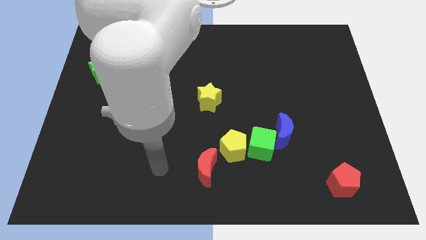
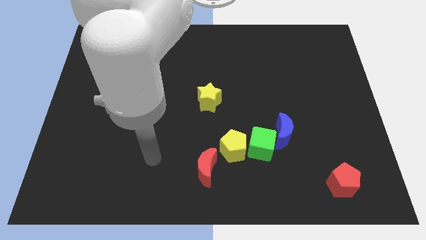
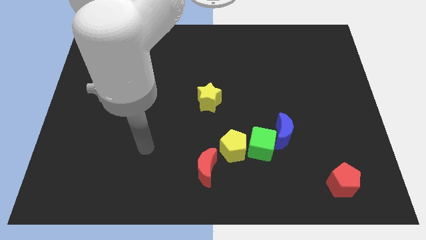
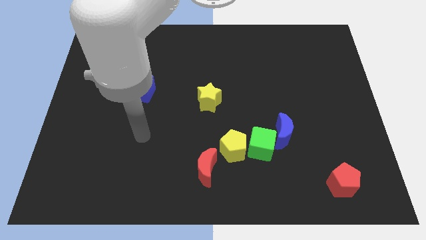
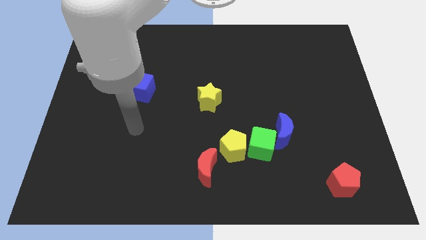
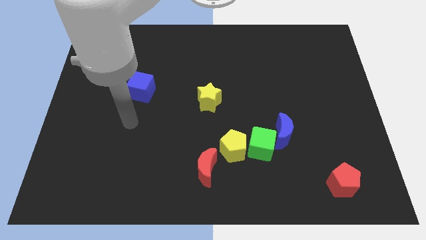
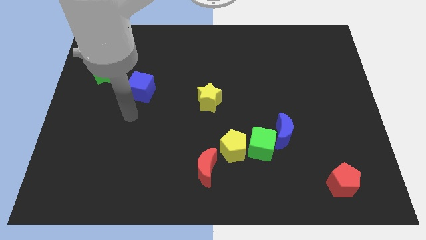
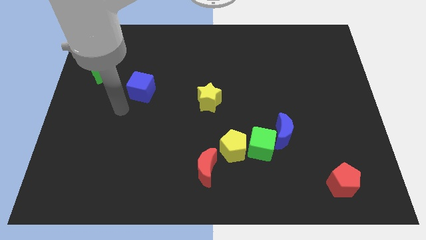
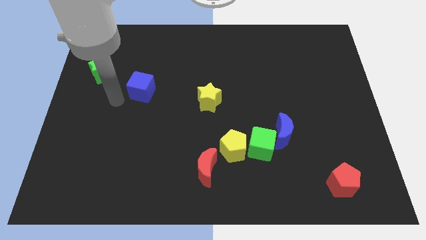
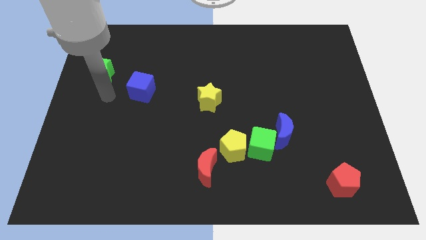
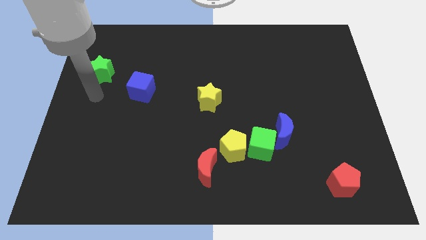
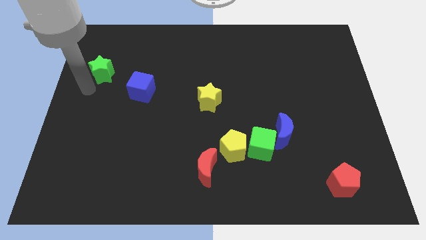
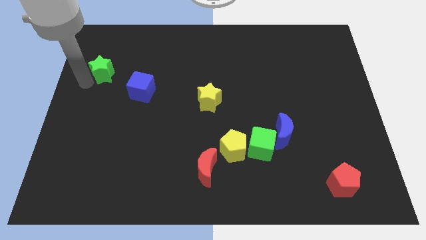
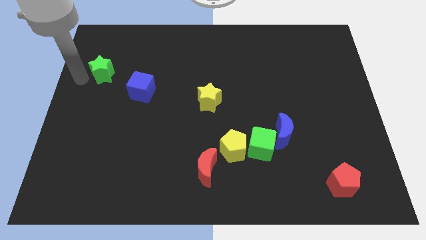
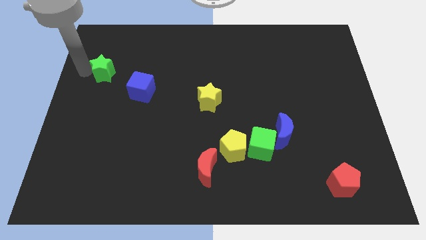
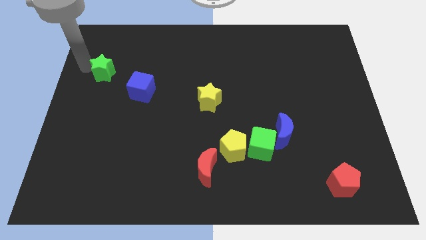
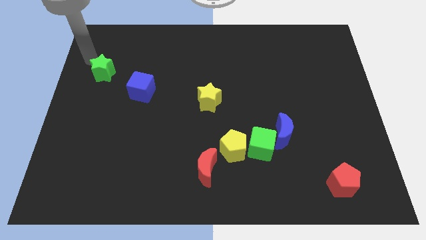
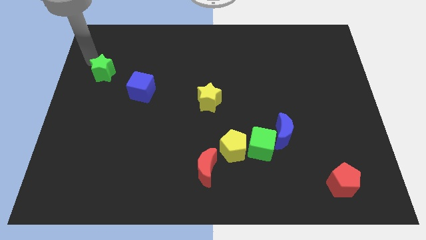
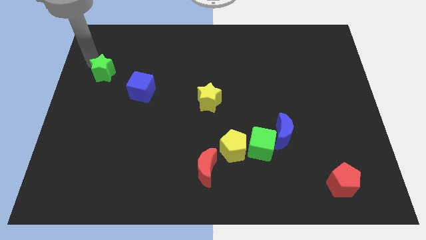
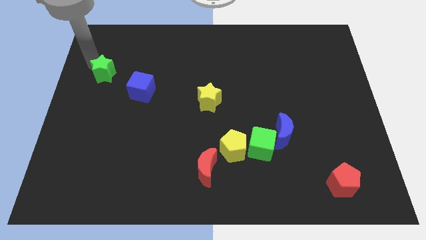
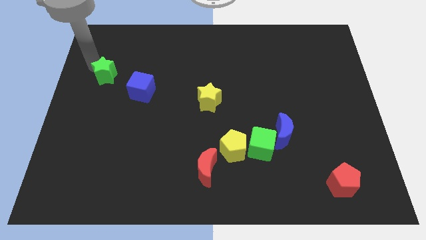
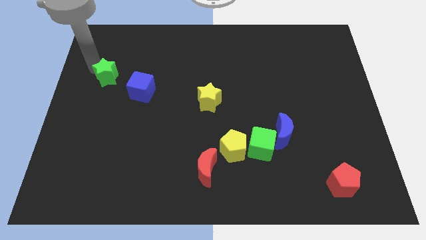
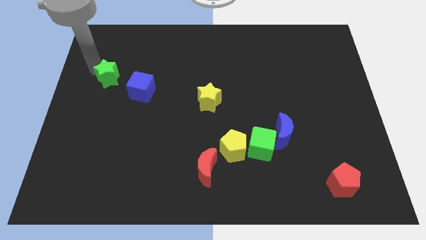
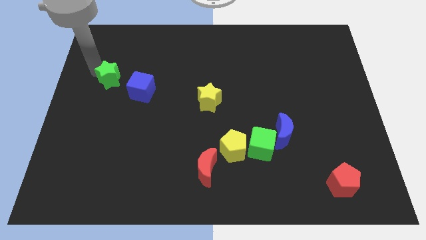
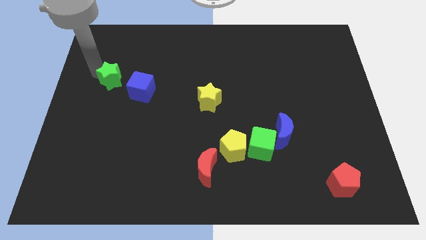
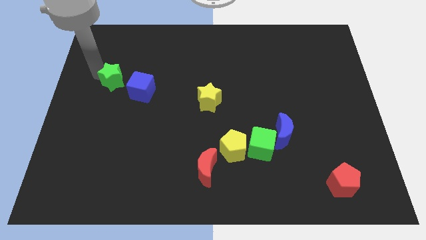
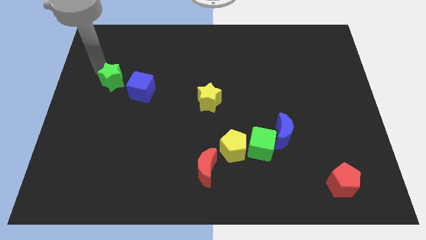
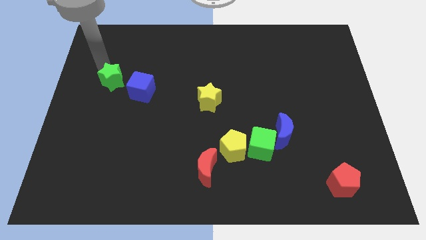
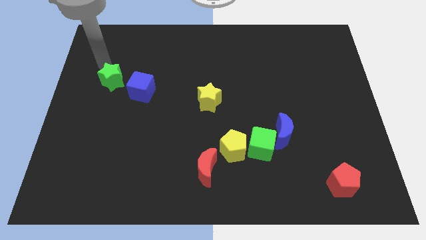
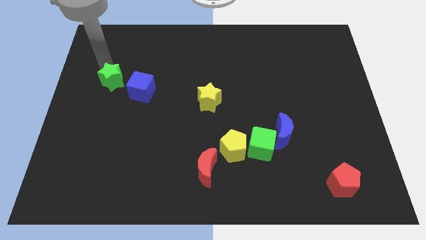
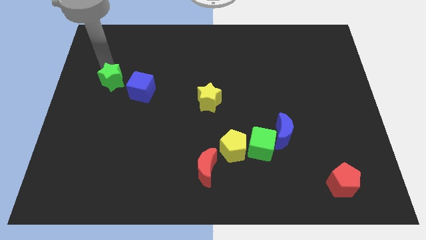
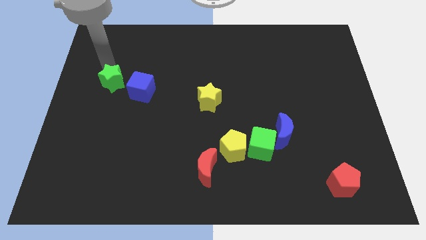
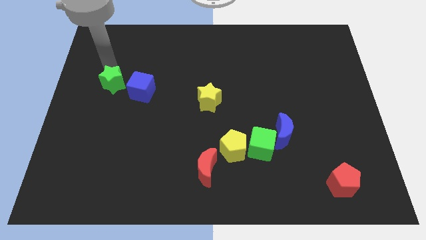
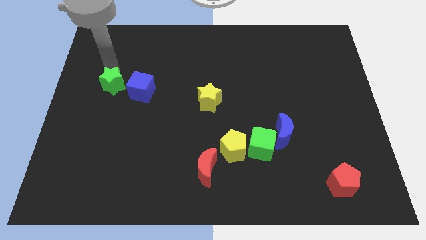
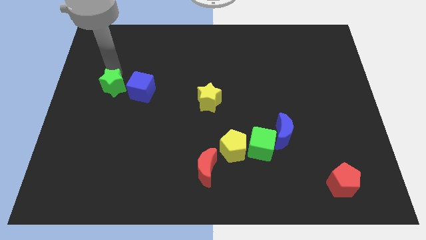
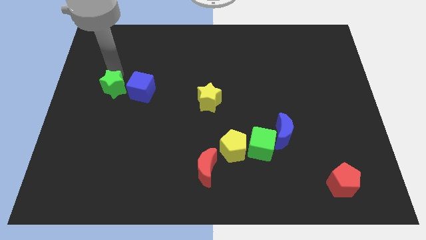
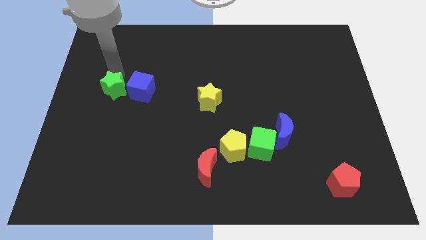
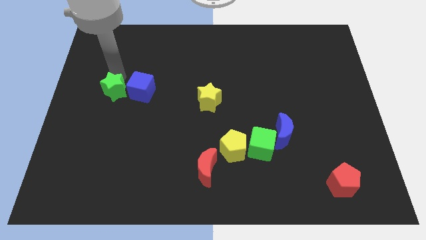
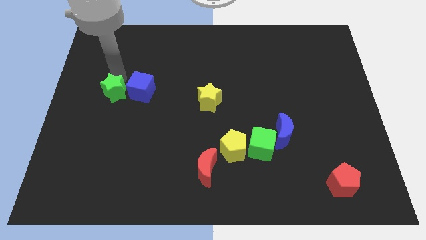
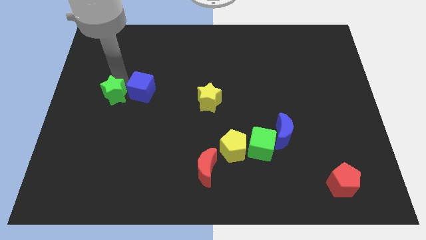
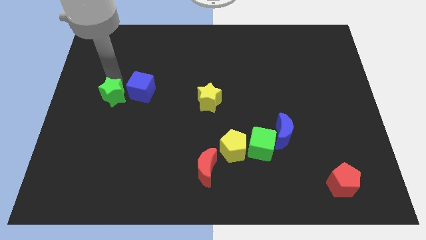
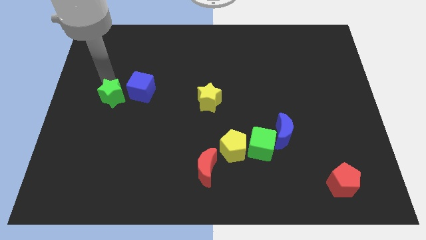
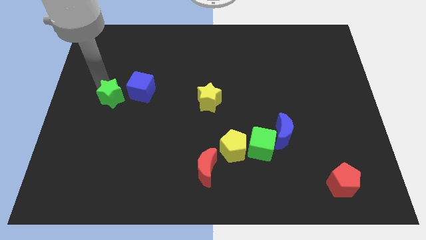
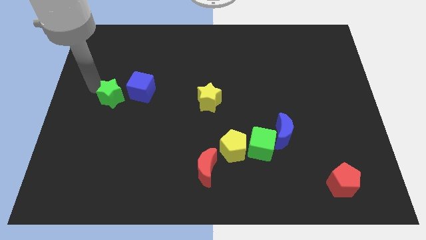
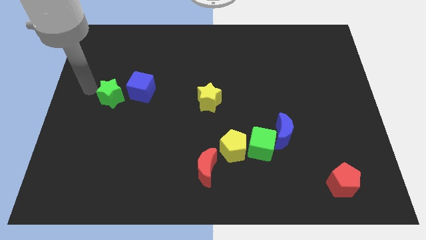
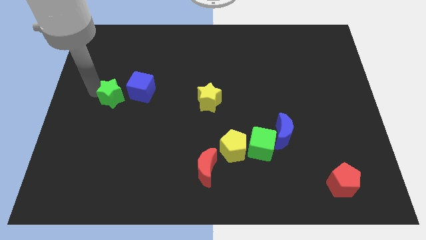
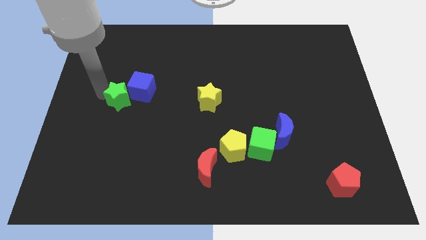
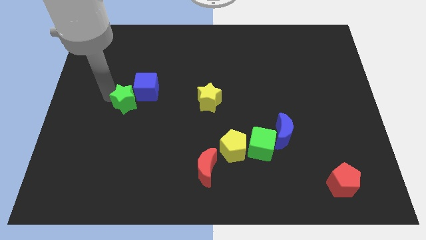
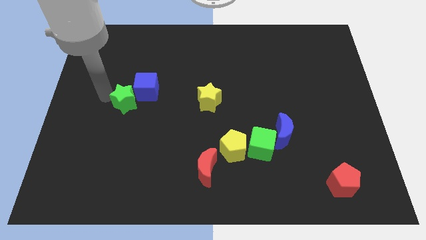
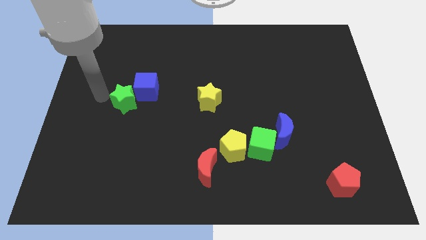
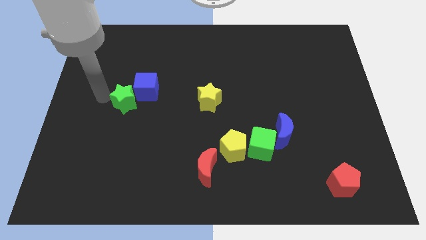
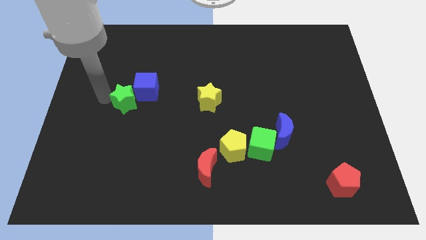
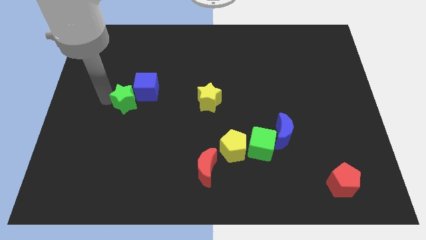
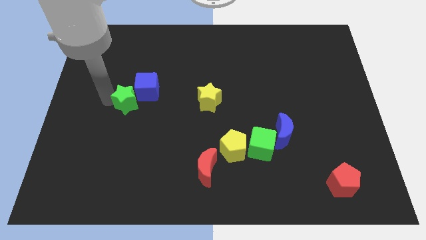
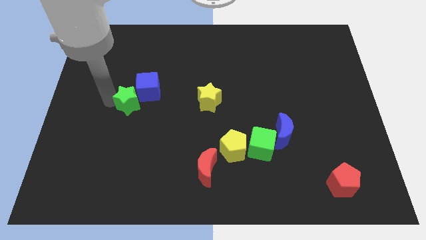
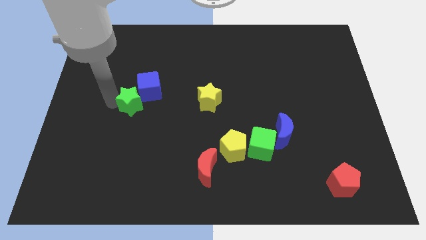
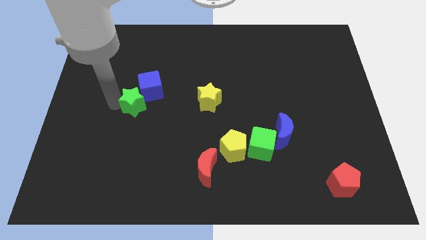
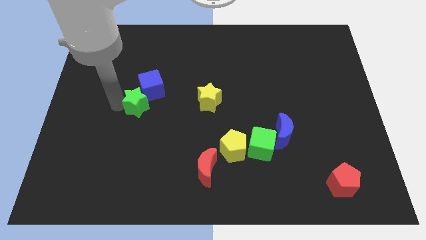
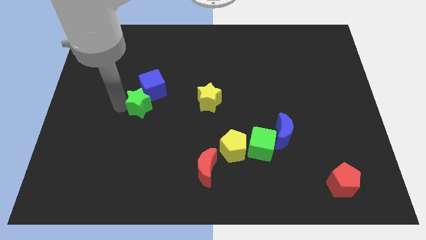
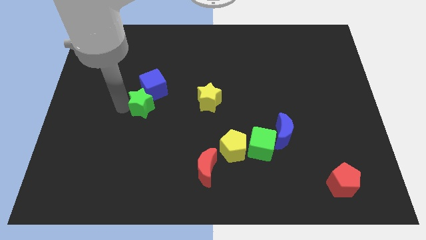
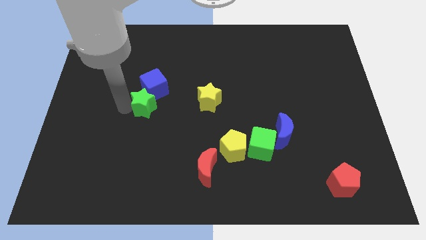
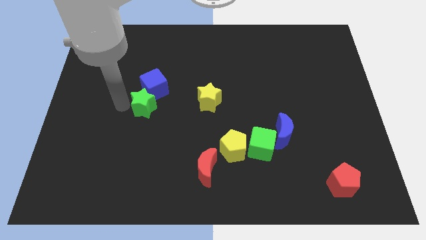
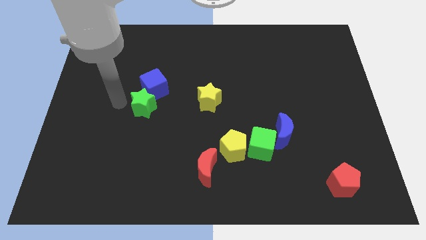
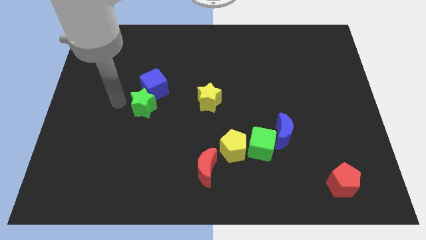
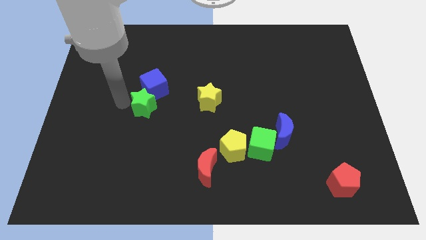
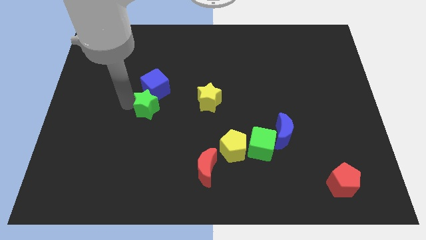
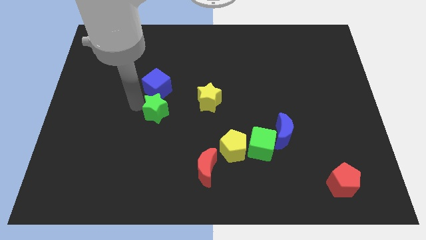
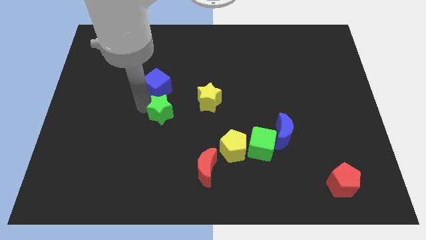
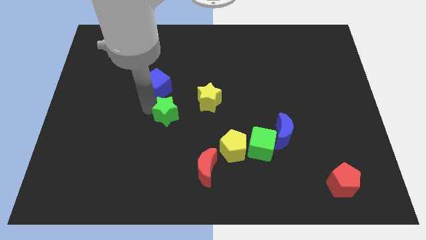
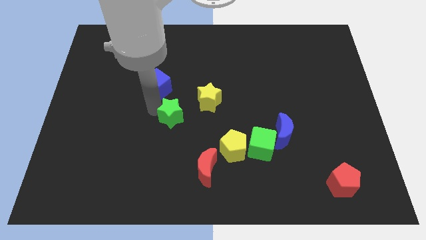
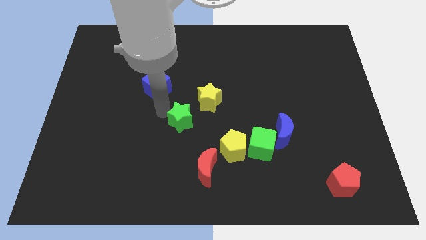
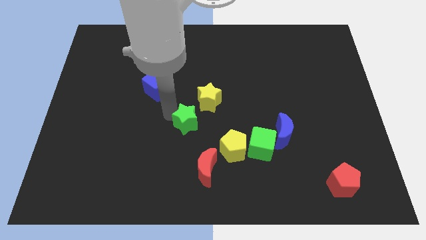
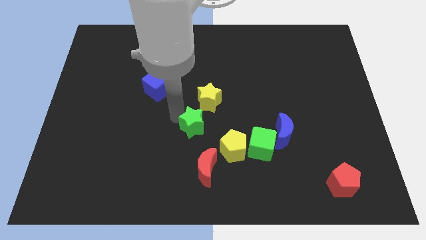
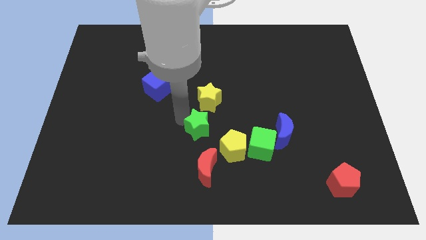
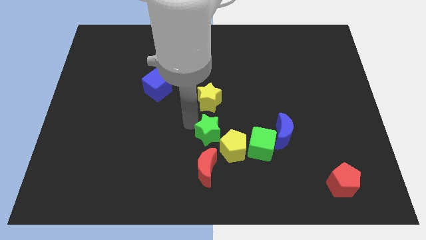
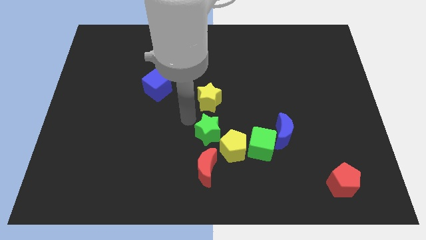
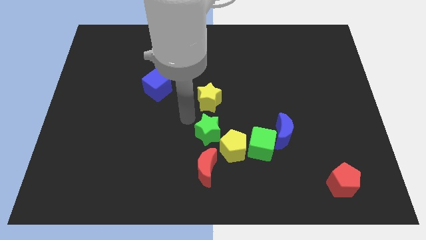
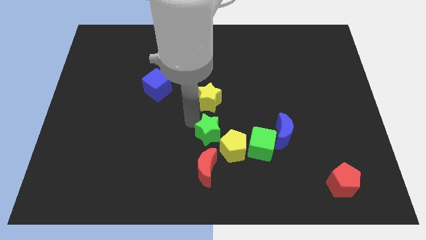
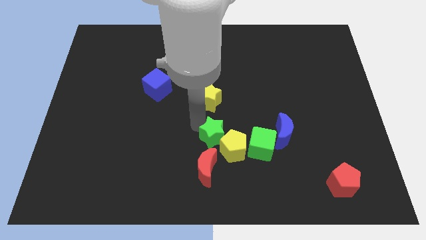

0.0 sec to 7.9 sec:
push the green star towards the yellow pentagon
